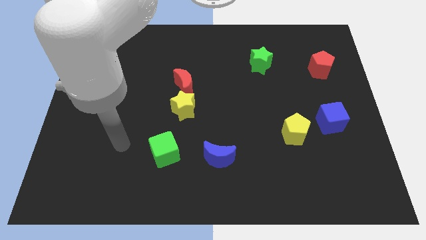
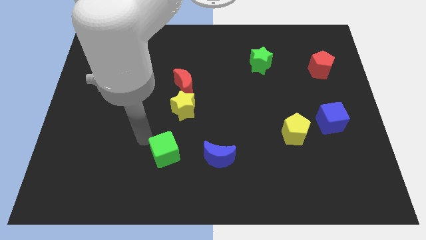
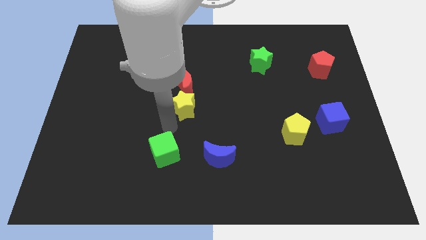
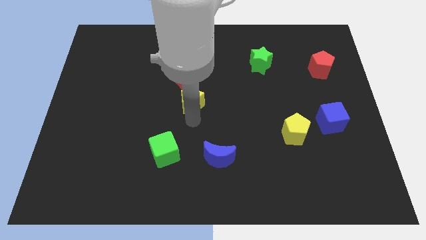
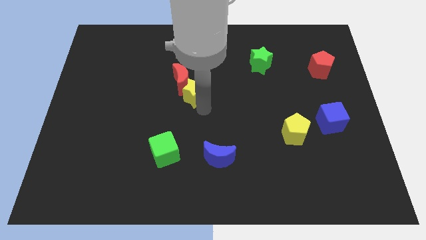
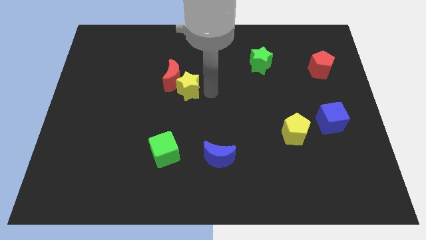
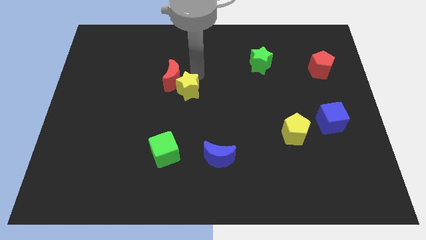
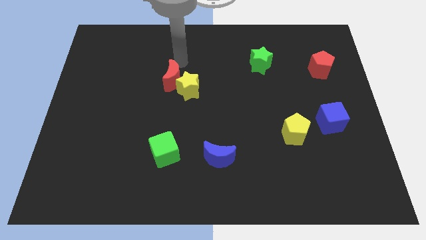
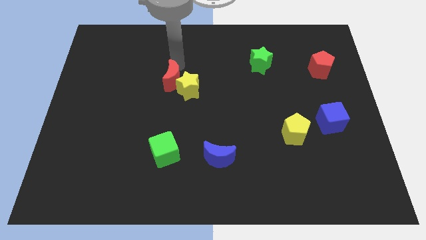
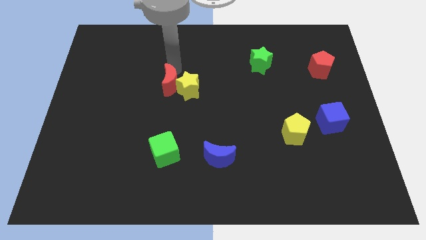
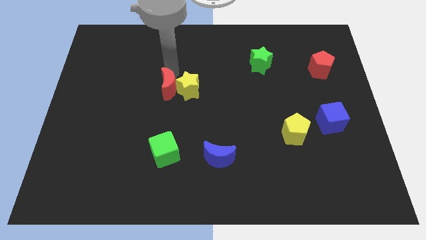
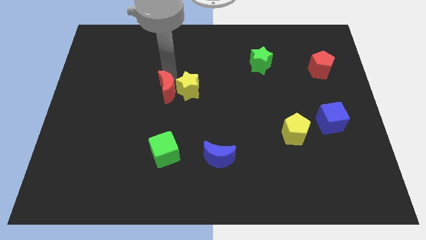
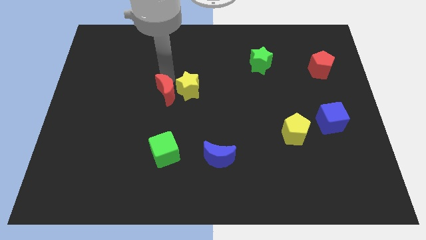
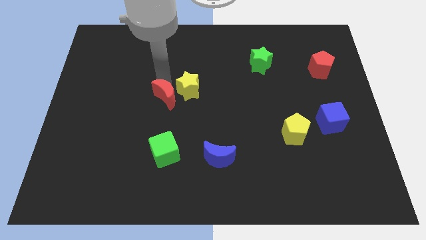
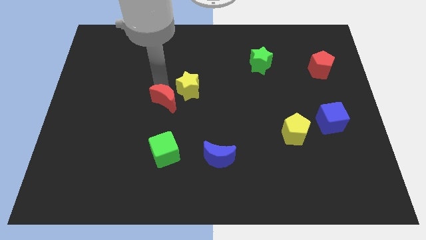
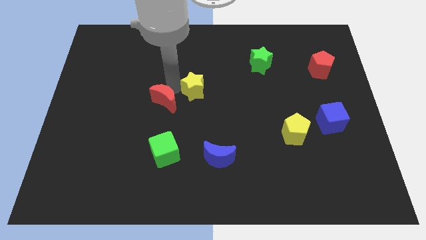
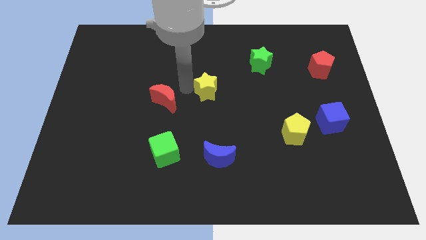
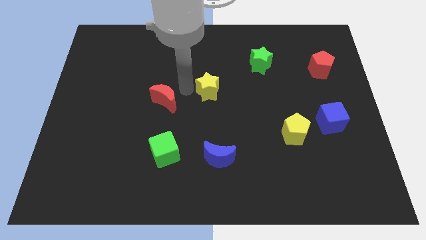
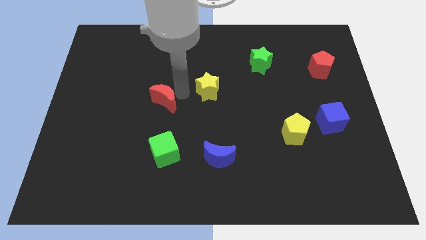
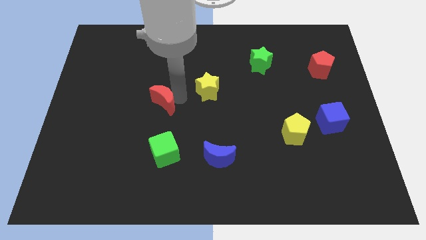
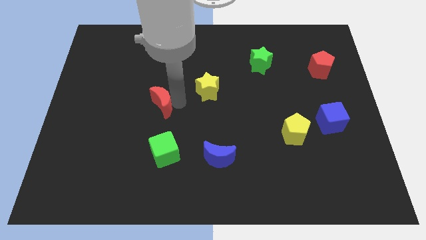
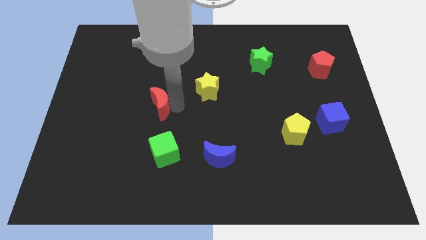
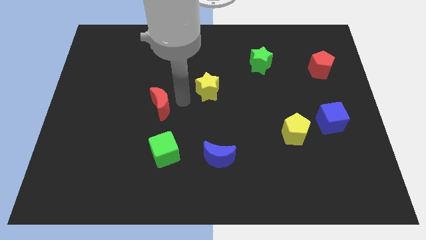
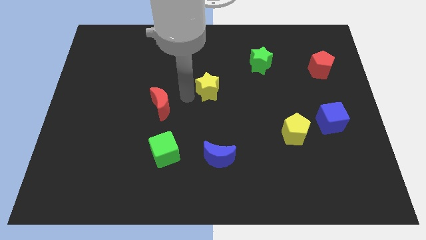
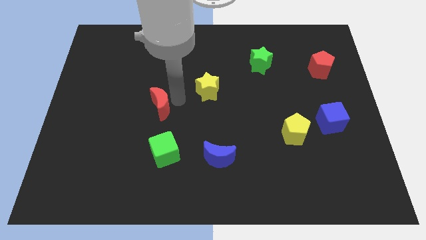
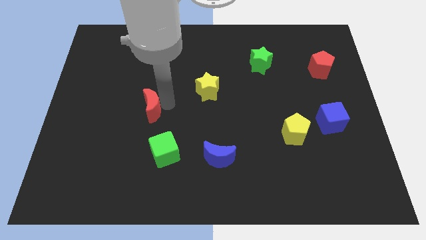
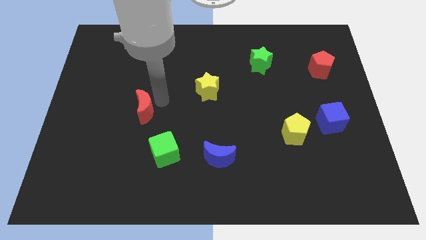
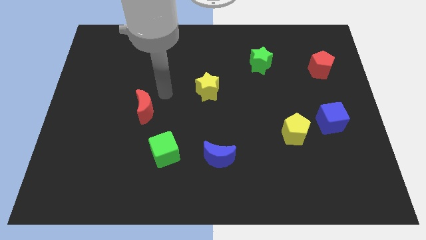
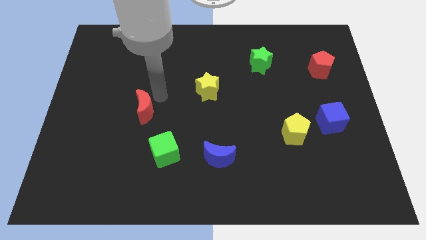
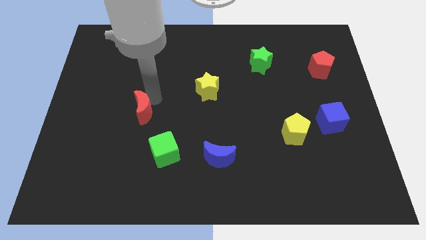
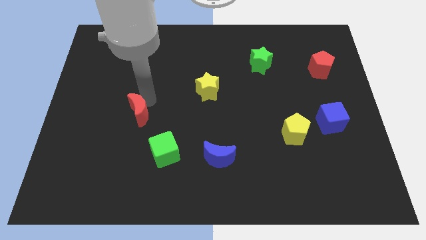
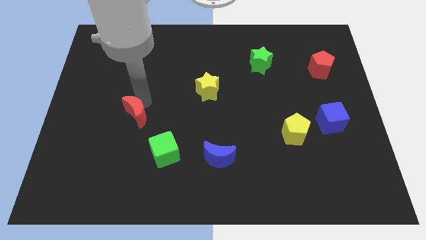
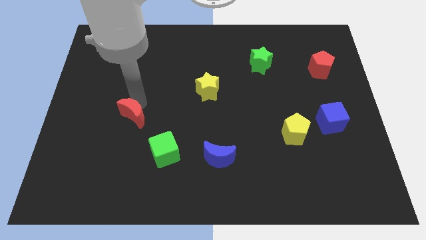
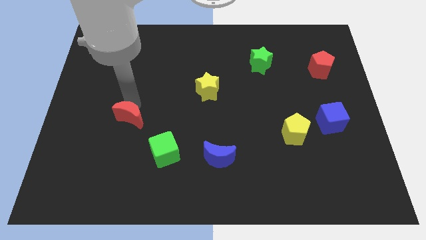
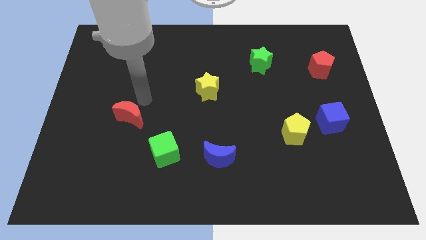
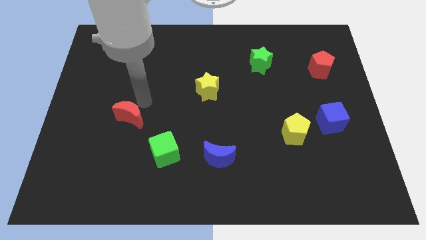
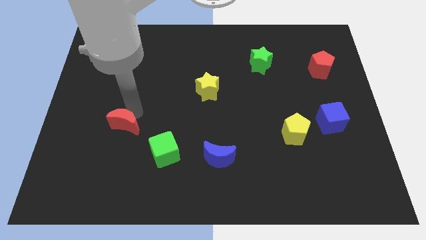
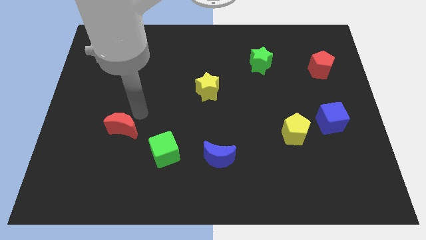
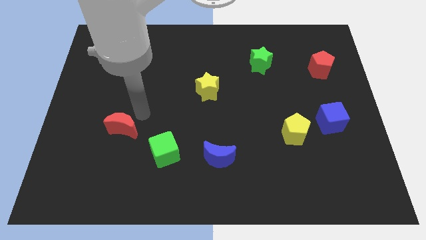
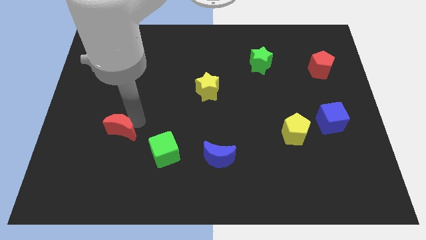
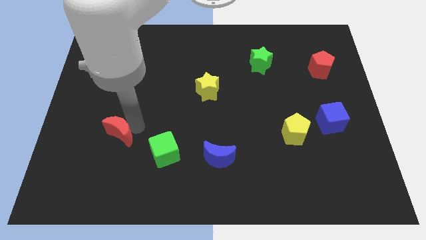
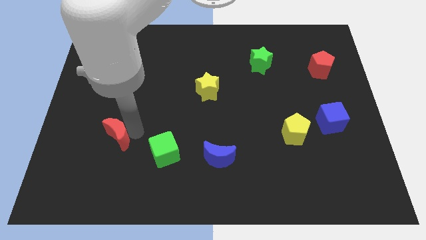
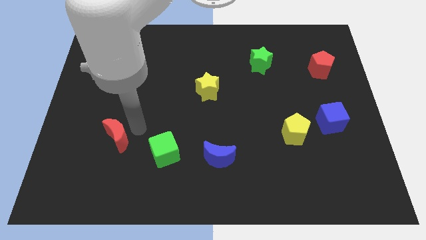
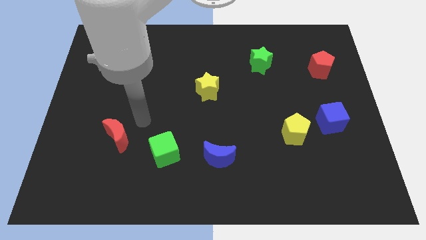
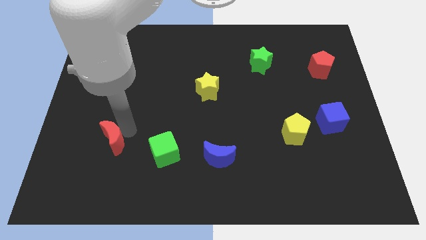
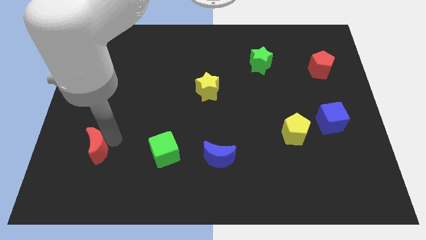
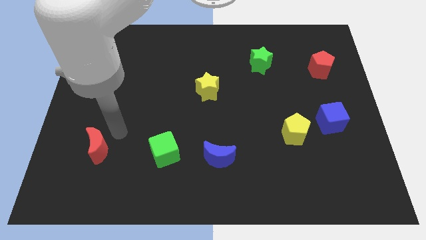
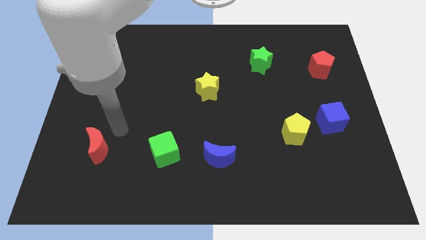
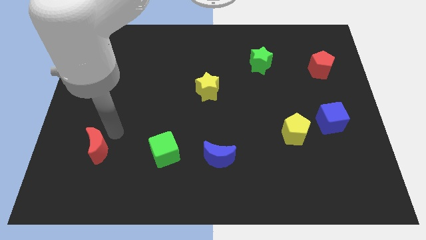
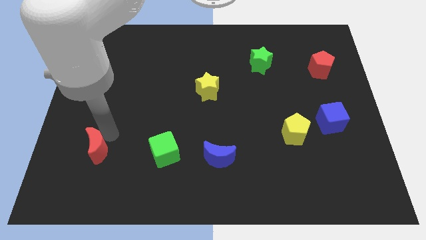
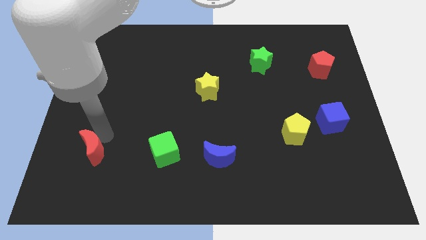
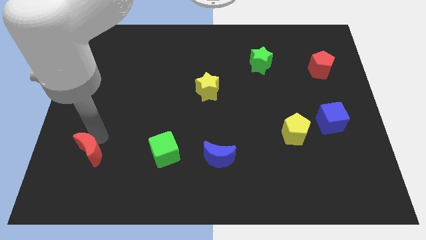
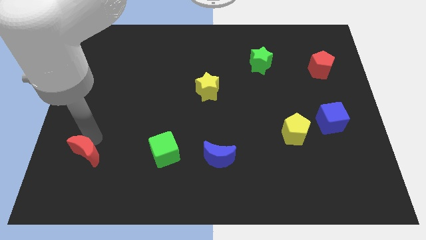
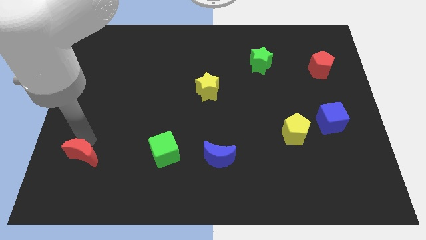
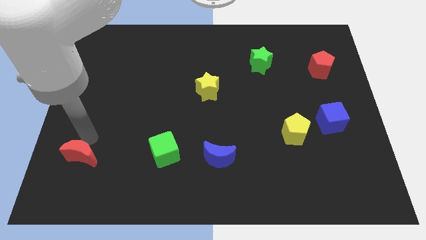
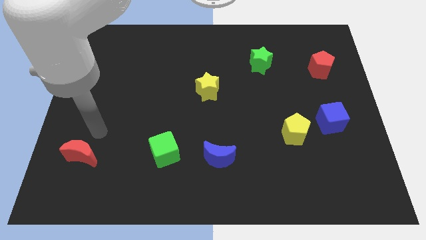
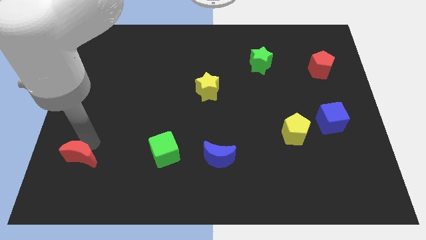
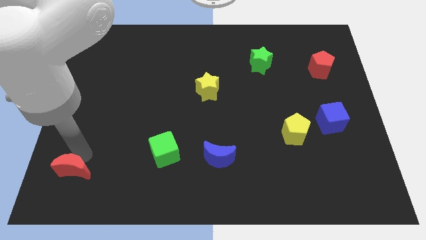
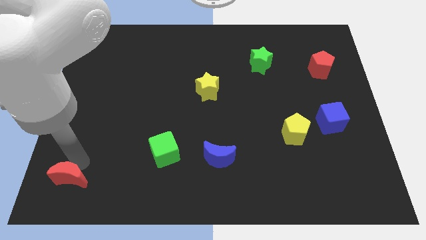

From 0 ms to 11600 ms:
move the red moon to the bottom left of the board
